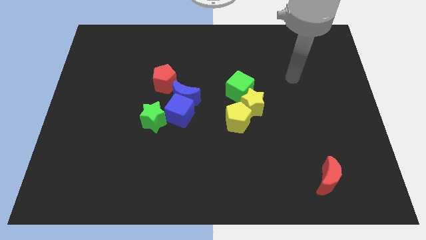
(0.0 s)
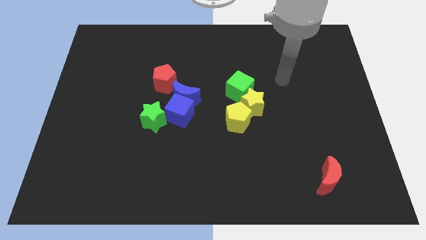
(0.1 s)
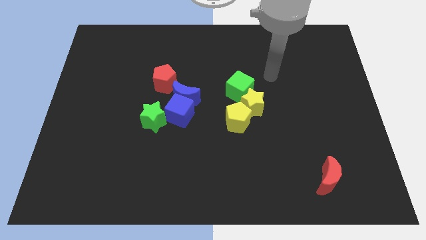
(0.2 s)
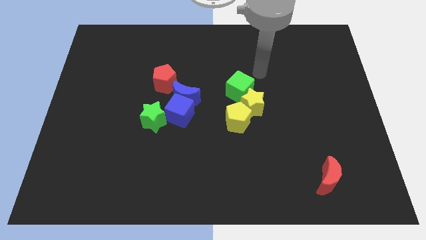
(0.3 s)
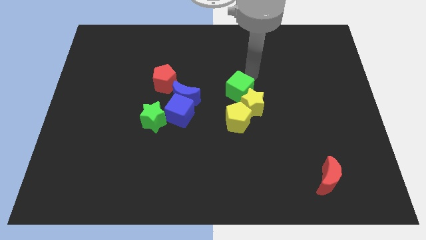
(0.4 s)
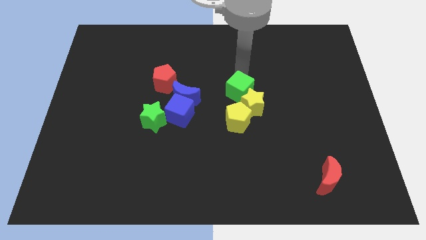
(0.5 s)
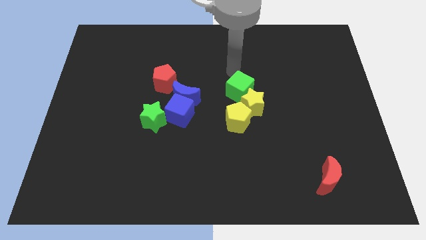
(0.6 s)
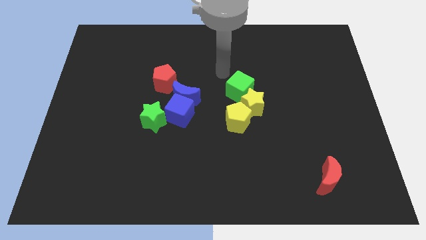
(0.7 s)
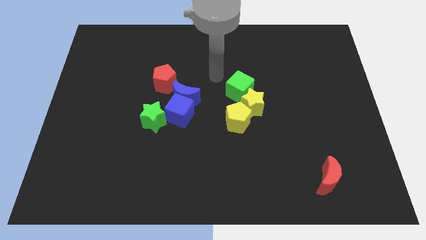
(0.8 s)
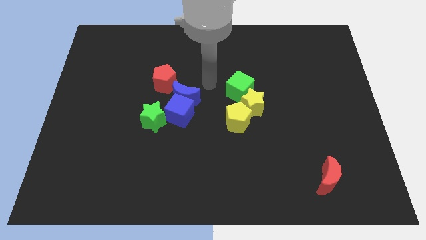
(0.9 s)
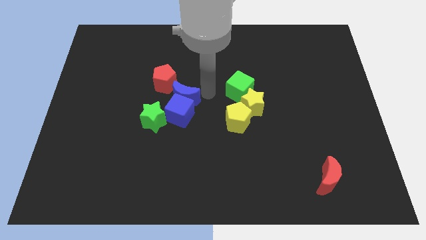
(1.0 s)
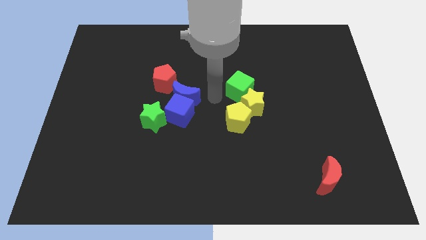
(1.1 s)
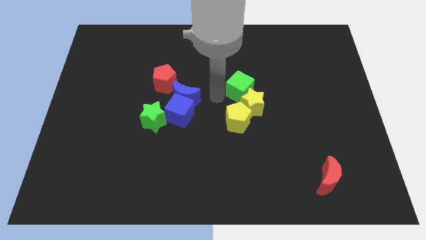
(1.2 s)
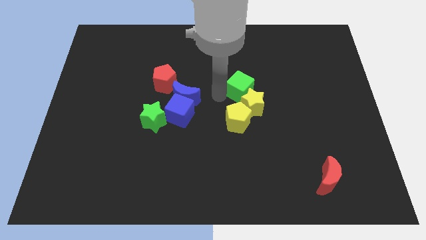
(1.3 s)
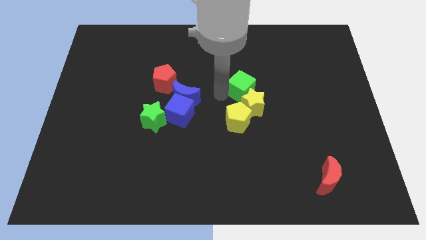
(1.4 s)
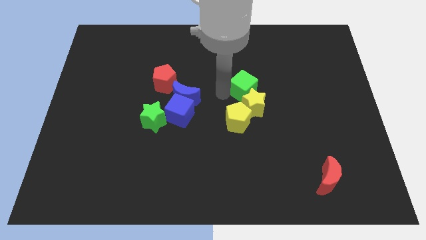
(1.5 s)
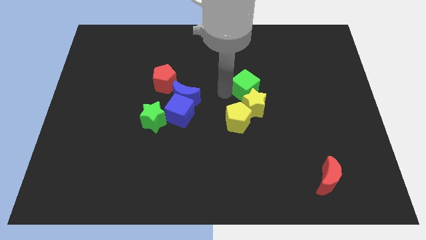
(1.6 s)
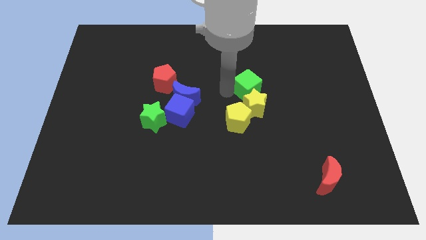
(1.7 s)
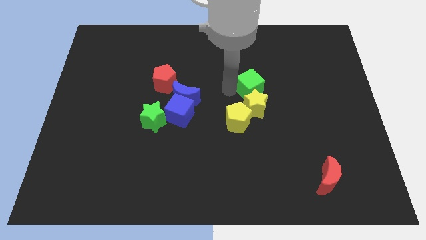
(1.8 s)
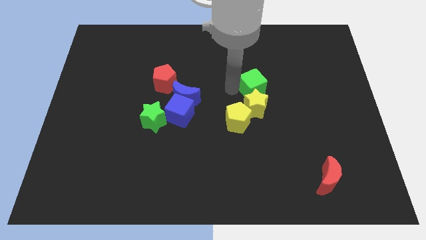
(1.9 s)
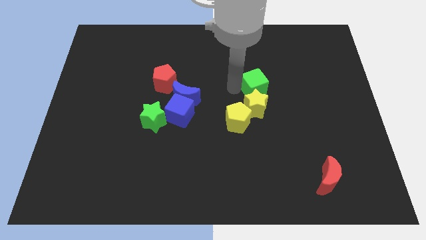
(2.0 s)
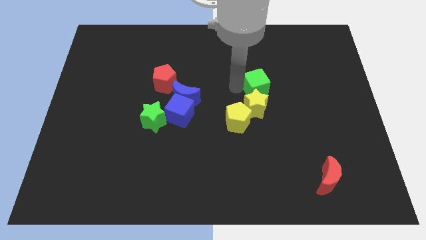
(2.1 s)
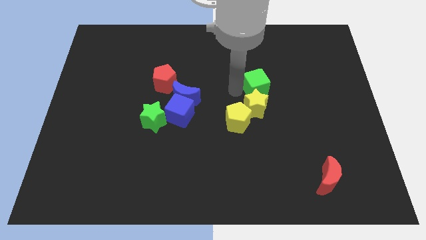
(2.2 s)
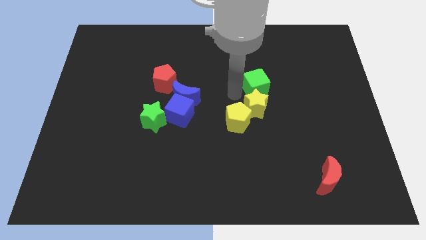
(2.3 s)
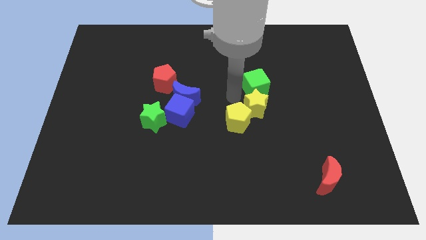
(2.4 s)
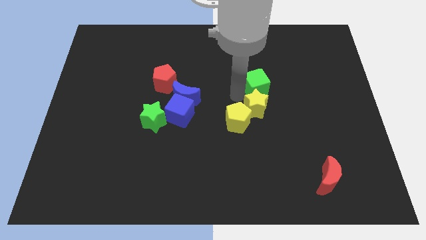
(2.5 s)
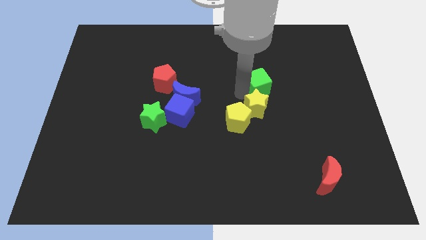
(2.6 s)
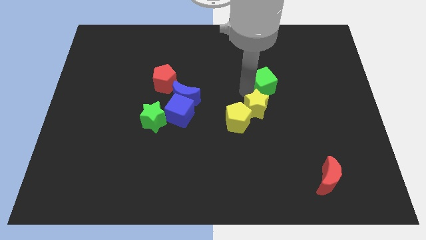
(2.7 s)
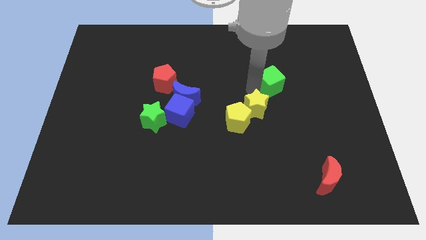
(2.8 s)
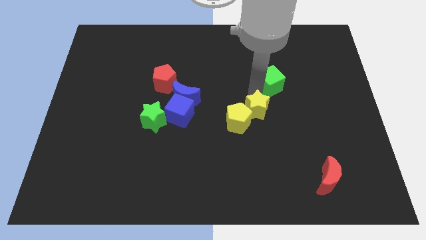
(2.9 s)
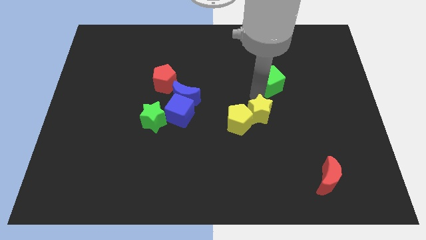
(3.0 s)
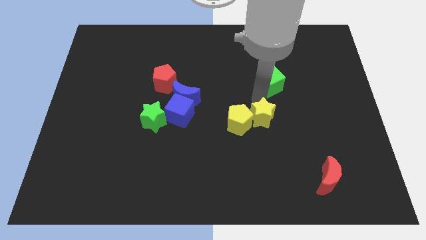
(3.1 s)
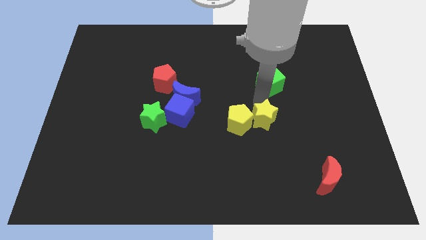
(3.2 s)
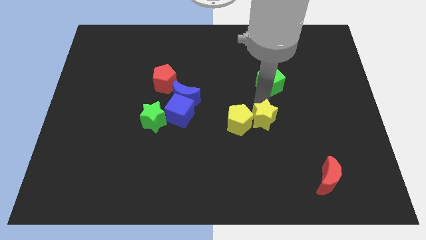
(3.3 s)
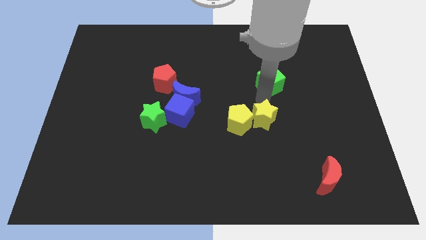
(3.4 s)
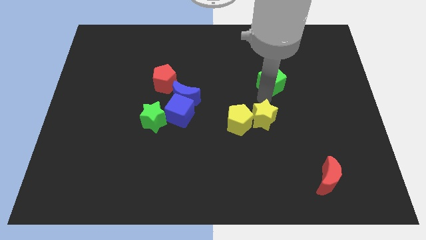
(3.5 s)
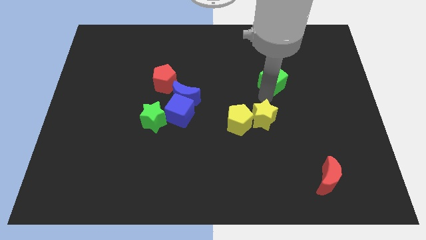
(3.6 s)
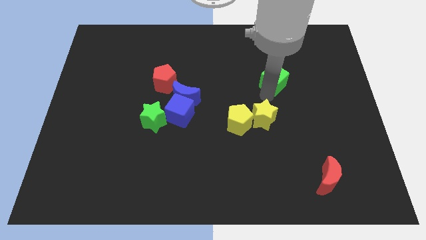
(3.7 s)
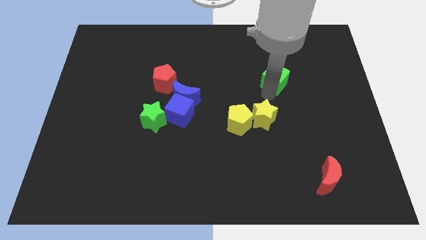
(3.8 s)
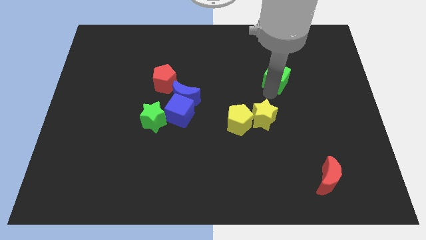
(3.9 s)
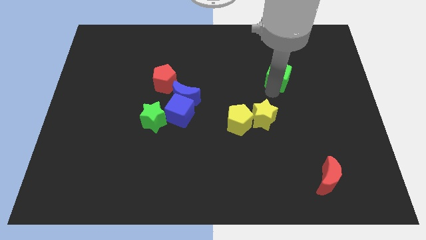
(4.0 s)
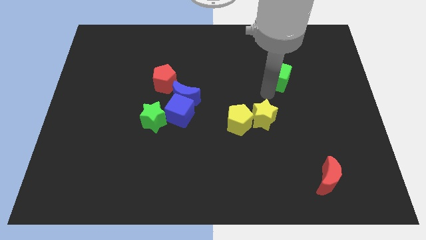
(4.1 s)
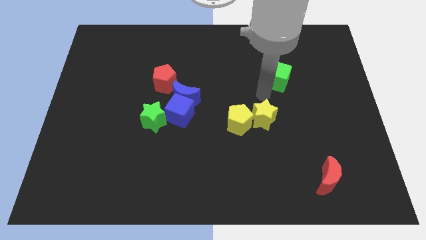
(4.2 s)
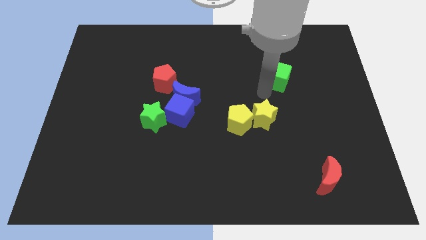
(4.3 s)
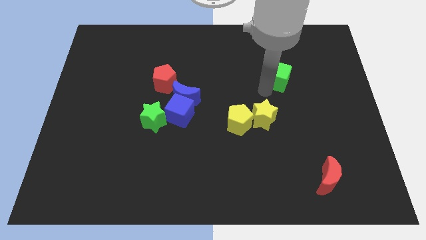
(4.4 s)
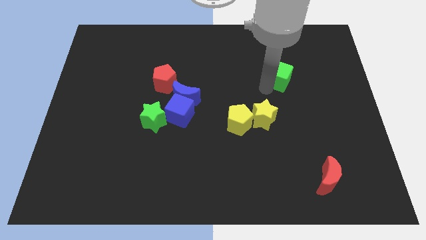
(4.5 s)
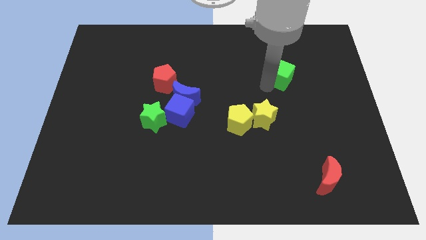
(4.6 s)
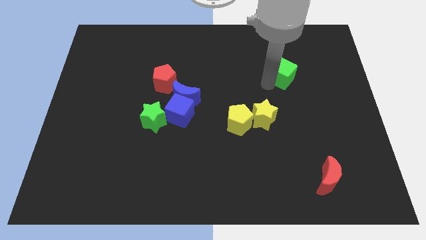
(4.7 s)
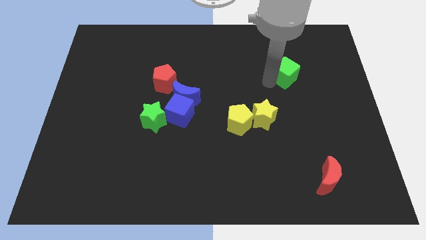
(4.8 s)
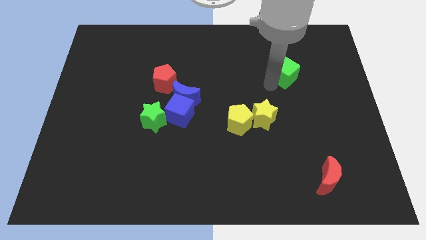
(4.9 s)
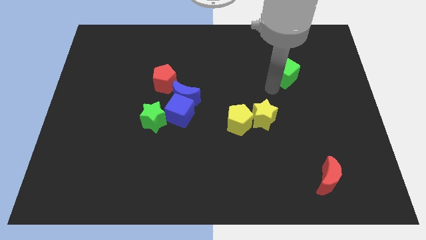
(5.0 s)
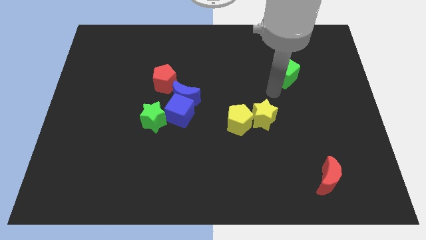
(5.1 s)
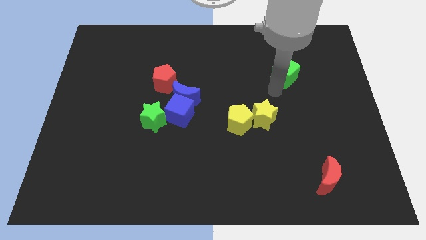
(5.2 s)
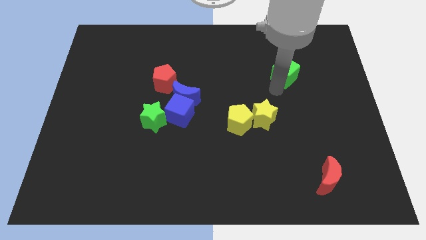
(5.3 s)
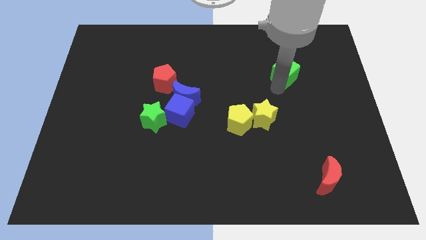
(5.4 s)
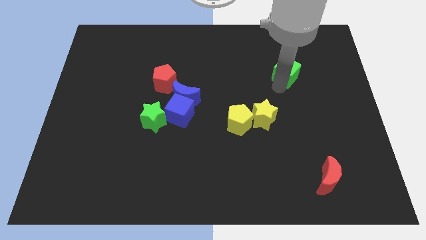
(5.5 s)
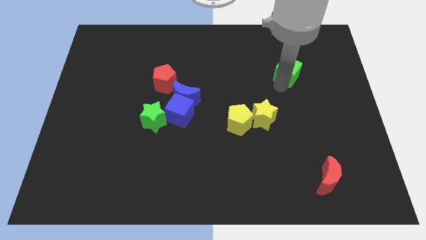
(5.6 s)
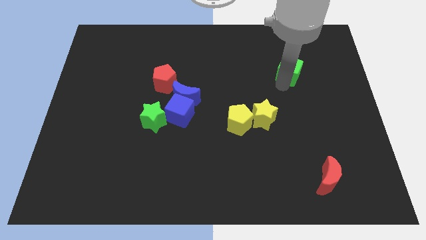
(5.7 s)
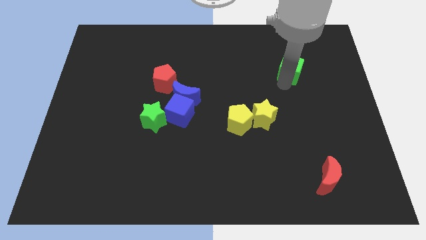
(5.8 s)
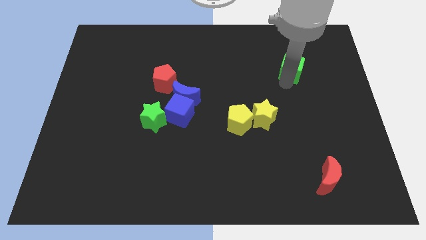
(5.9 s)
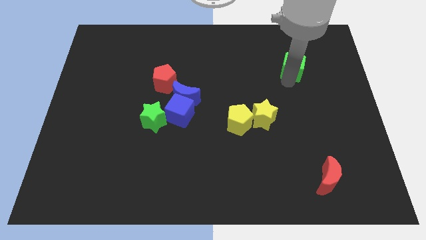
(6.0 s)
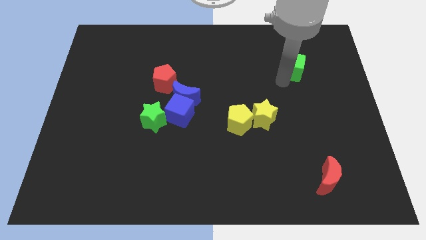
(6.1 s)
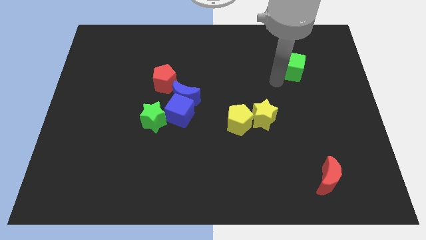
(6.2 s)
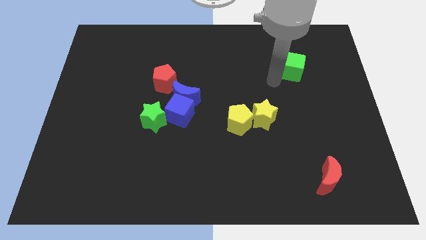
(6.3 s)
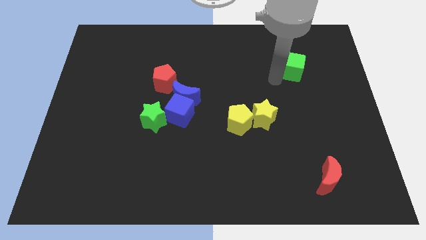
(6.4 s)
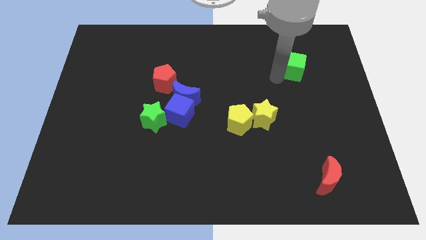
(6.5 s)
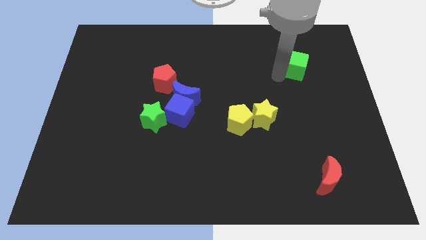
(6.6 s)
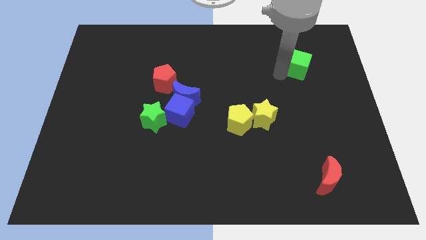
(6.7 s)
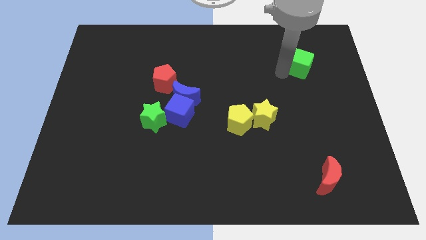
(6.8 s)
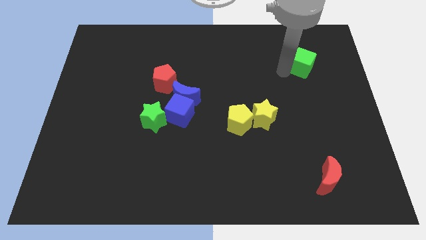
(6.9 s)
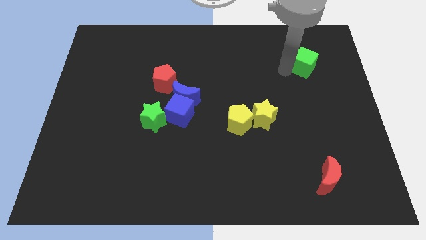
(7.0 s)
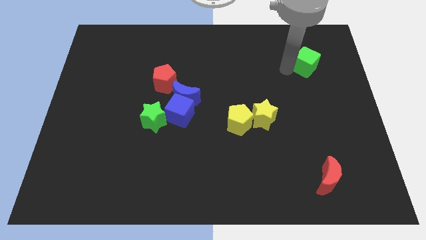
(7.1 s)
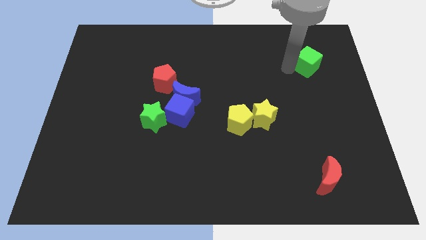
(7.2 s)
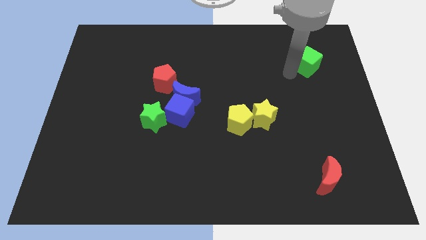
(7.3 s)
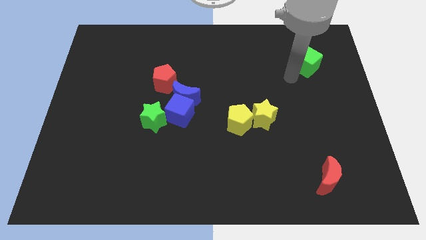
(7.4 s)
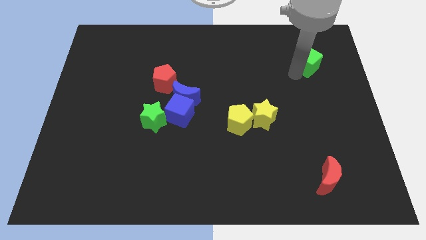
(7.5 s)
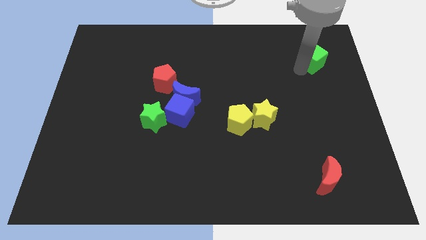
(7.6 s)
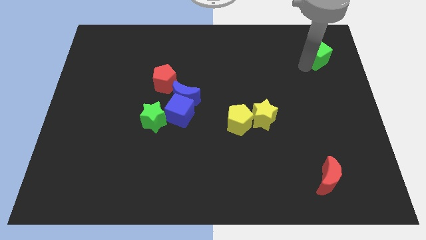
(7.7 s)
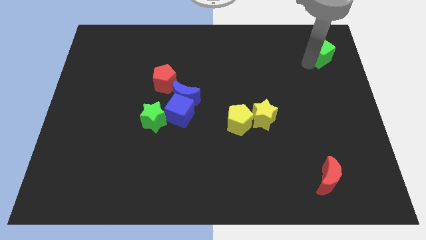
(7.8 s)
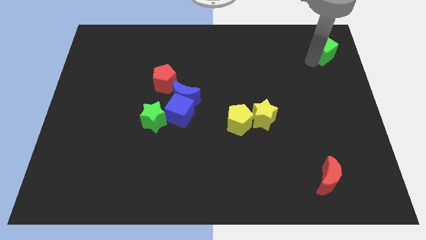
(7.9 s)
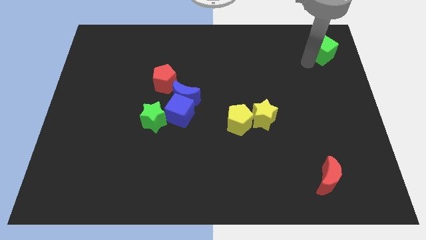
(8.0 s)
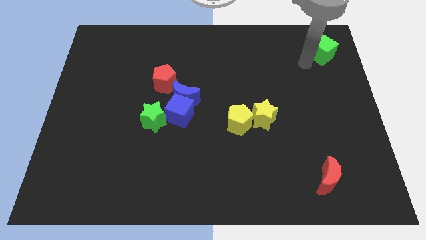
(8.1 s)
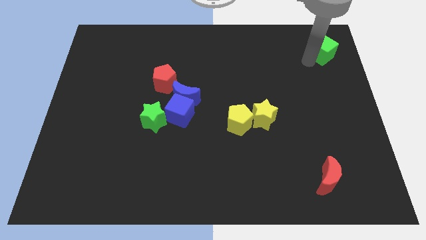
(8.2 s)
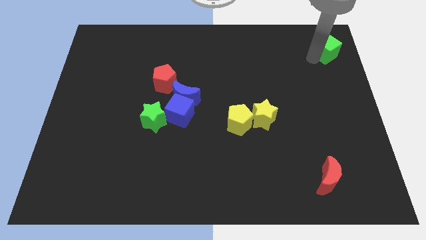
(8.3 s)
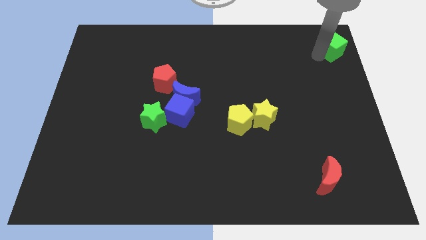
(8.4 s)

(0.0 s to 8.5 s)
move the green cube to the top right
